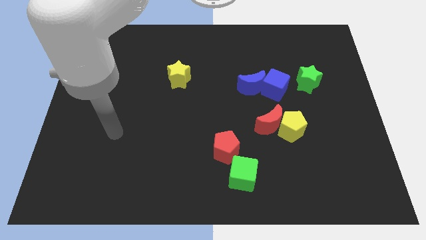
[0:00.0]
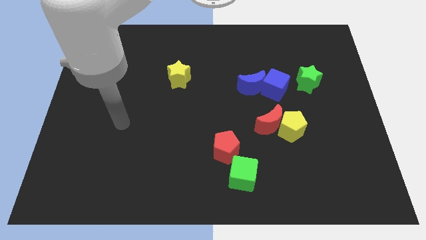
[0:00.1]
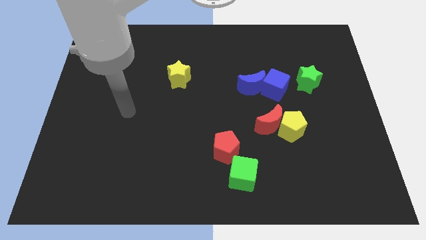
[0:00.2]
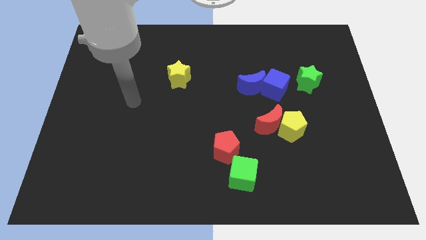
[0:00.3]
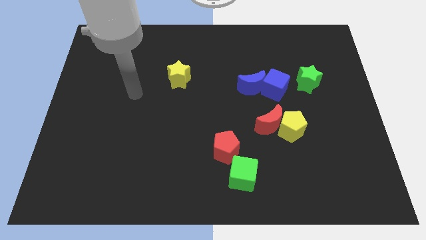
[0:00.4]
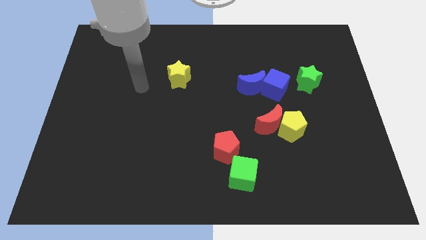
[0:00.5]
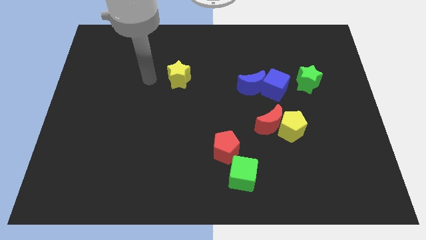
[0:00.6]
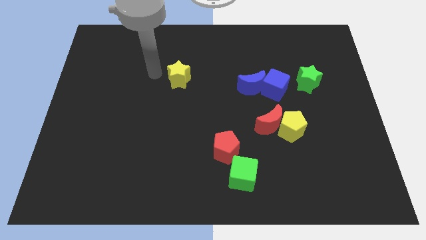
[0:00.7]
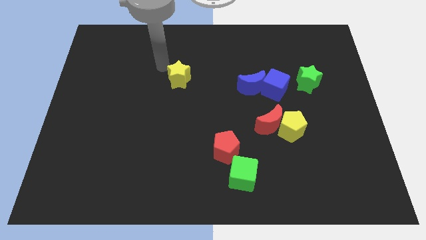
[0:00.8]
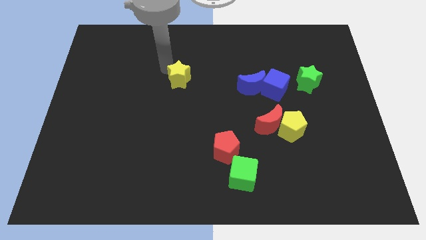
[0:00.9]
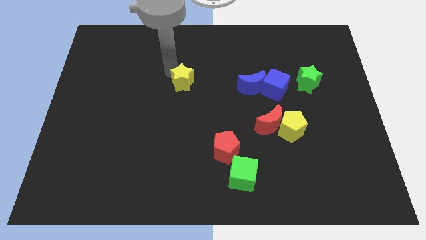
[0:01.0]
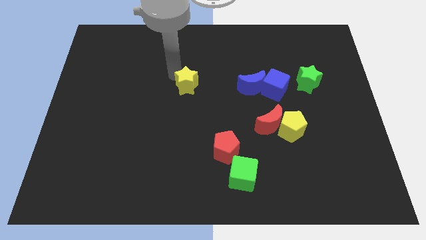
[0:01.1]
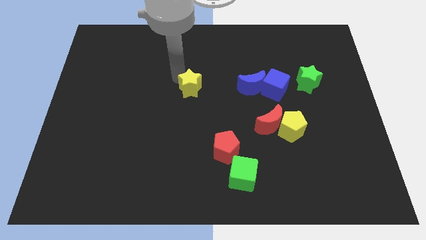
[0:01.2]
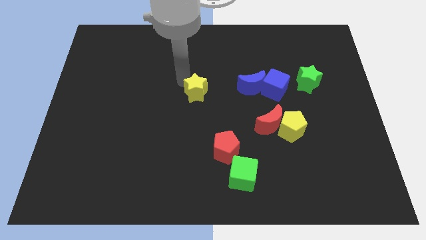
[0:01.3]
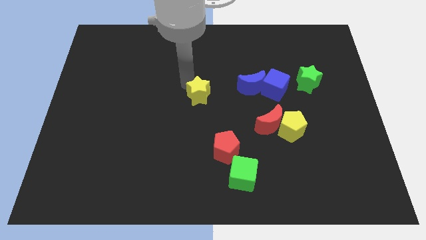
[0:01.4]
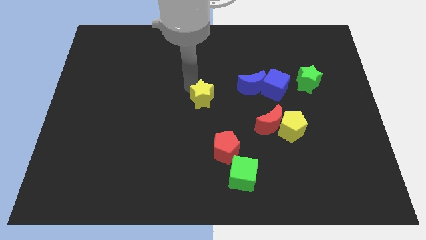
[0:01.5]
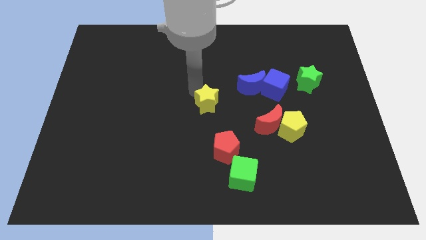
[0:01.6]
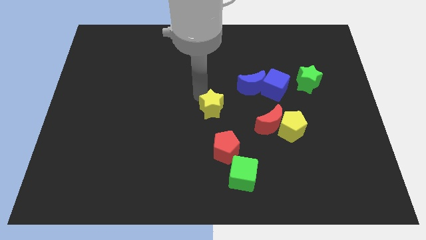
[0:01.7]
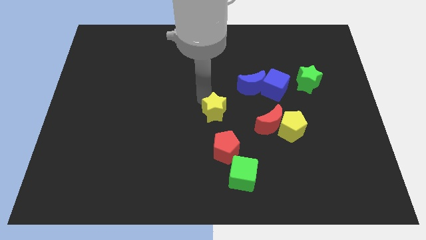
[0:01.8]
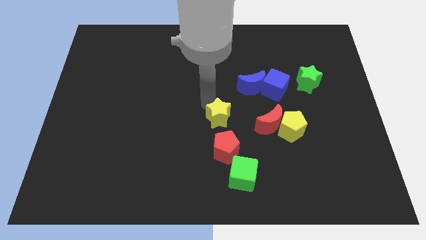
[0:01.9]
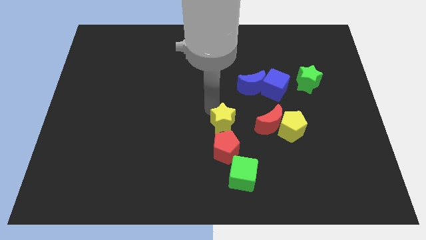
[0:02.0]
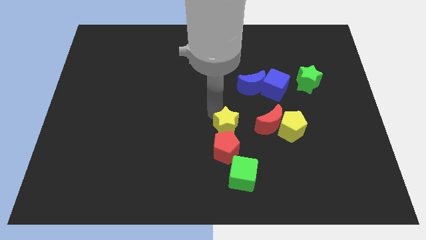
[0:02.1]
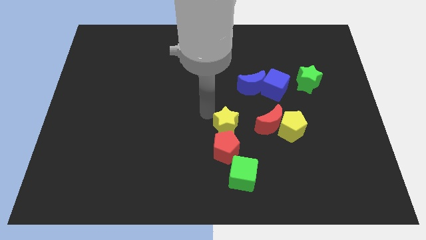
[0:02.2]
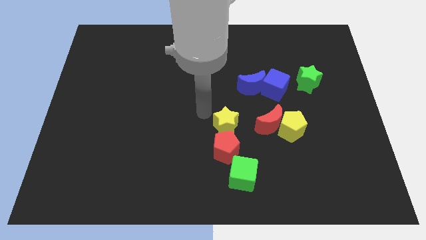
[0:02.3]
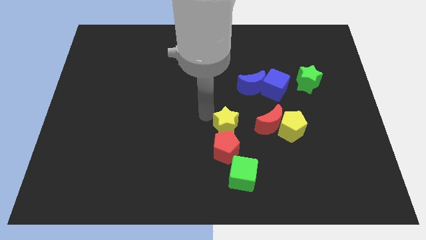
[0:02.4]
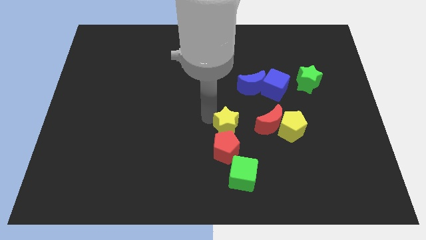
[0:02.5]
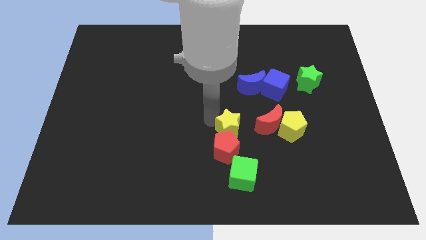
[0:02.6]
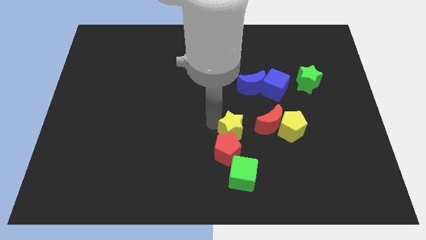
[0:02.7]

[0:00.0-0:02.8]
move the yellow star down and to the right diagonally

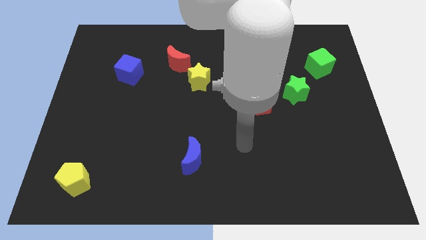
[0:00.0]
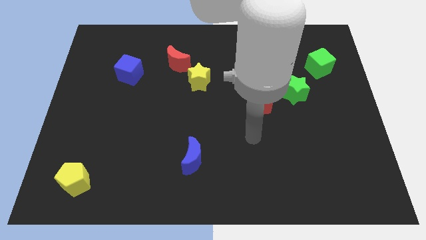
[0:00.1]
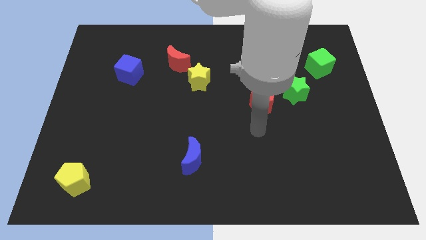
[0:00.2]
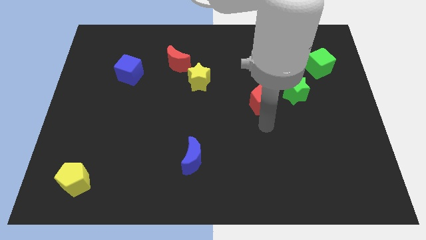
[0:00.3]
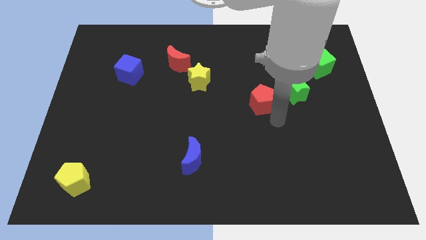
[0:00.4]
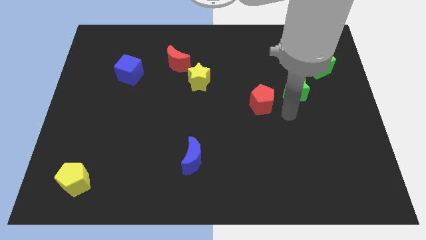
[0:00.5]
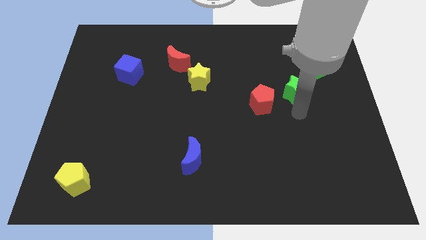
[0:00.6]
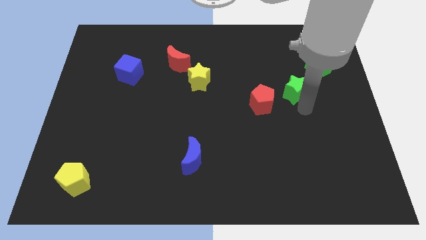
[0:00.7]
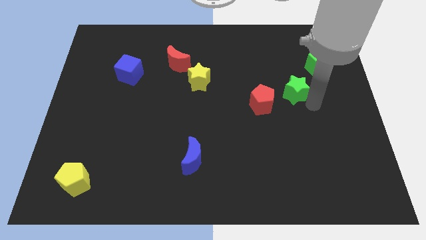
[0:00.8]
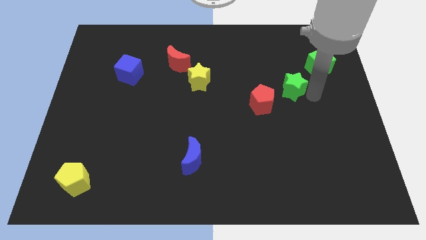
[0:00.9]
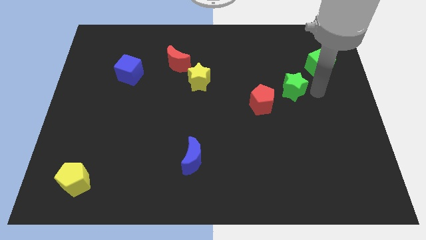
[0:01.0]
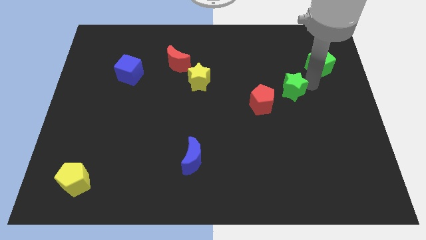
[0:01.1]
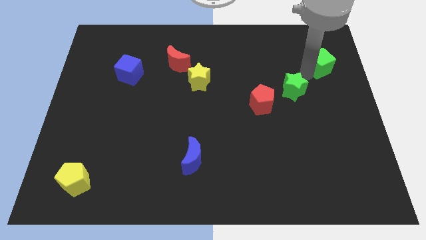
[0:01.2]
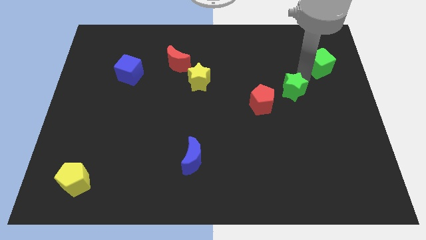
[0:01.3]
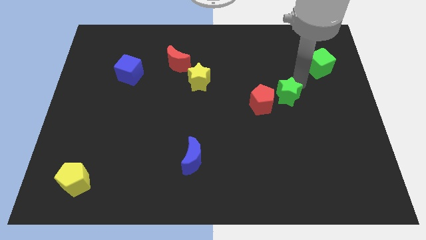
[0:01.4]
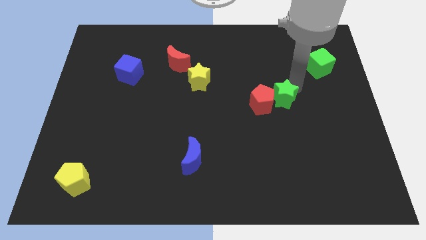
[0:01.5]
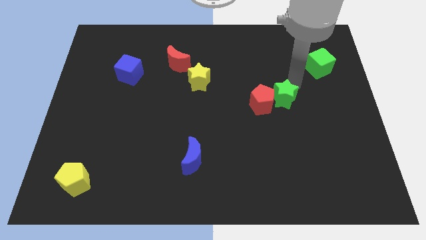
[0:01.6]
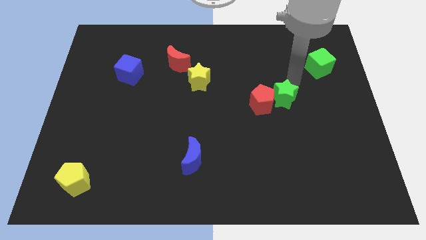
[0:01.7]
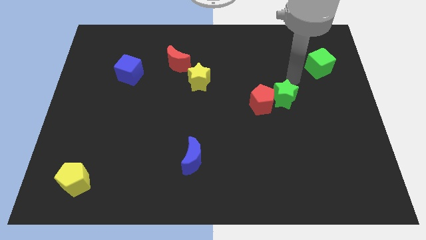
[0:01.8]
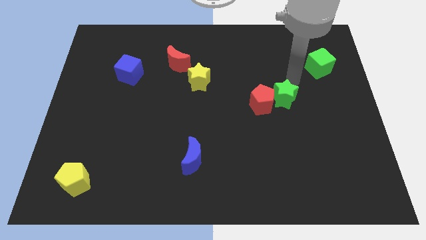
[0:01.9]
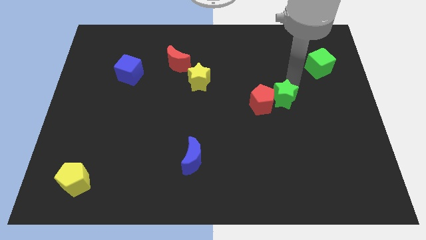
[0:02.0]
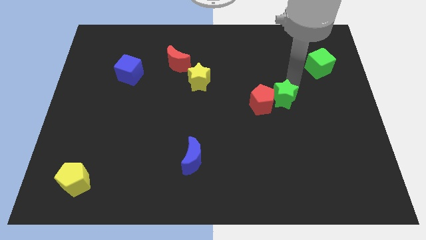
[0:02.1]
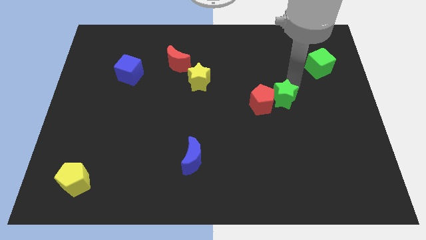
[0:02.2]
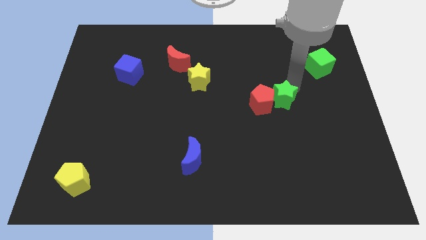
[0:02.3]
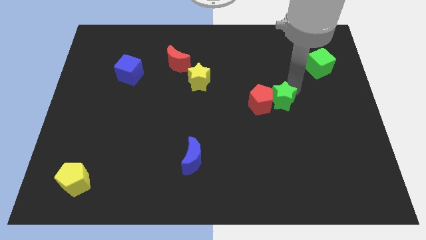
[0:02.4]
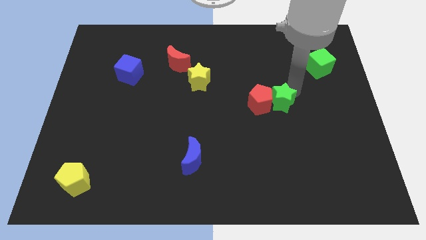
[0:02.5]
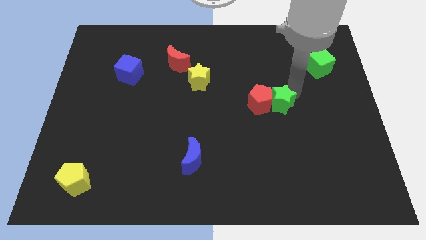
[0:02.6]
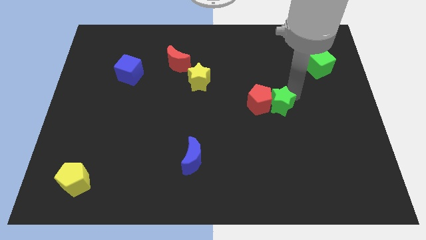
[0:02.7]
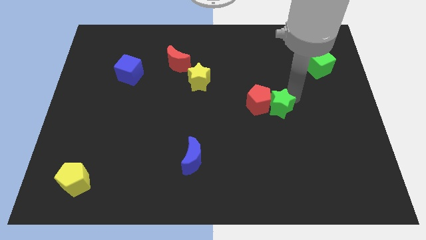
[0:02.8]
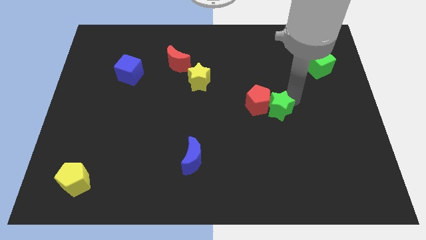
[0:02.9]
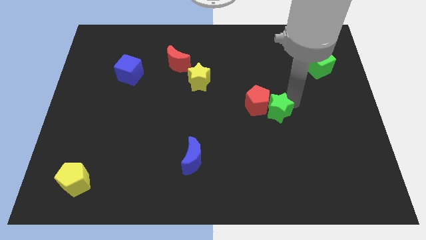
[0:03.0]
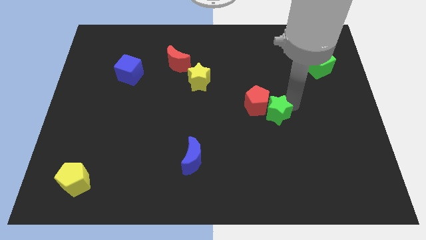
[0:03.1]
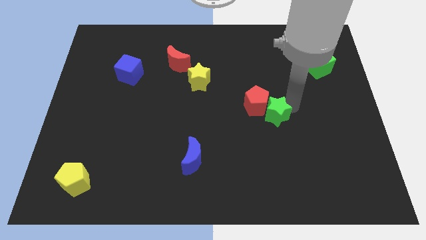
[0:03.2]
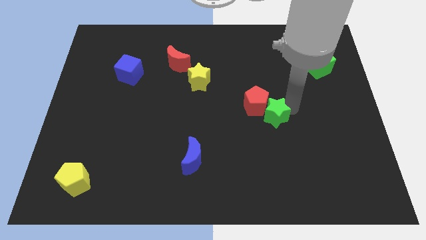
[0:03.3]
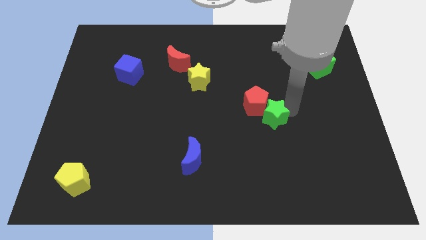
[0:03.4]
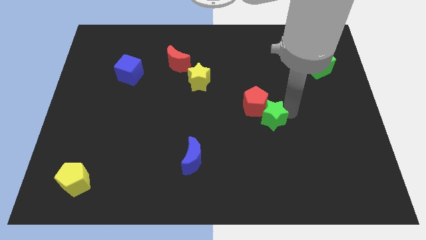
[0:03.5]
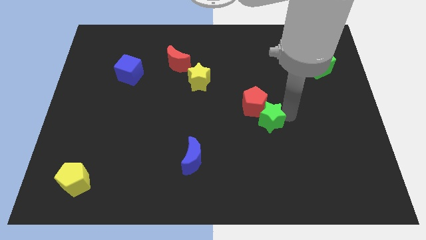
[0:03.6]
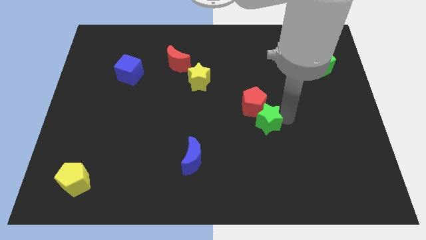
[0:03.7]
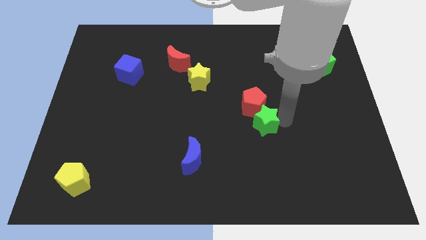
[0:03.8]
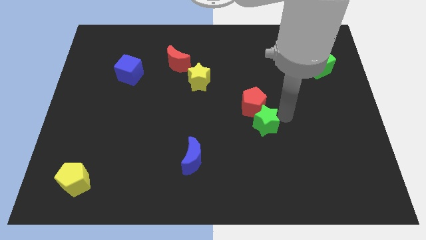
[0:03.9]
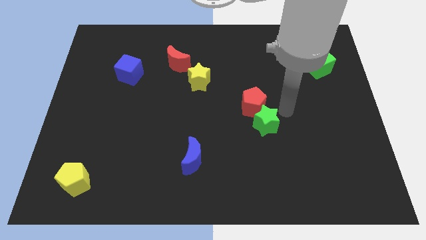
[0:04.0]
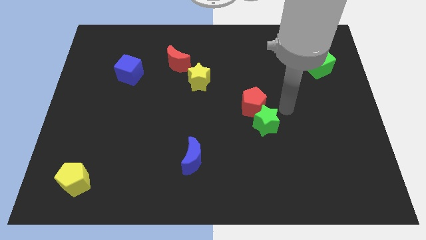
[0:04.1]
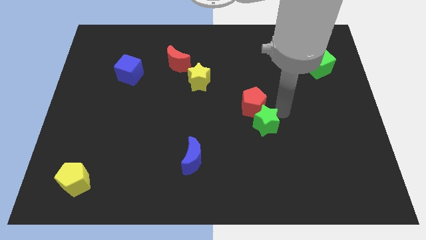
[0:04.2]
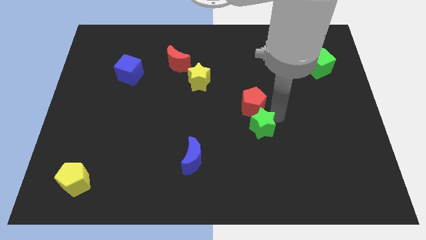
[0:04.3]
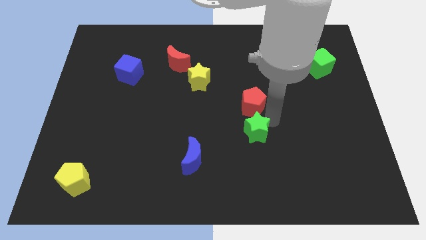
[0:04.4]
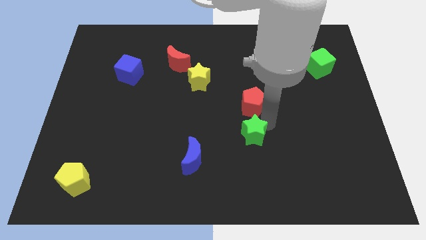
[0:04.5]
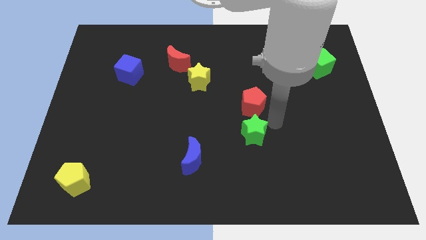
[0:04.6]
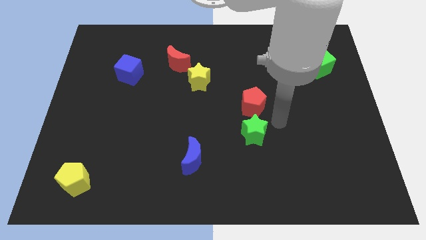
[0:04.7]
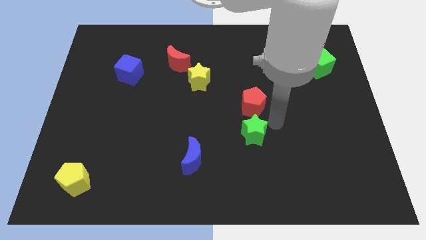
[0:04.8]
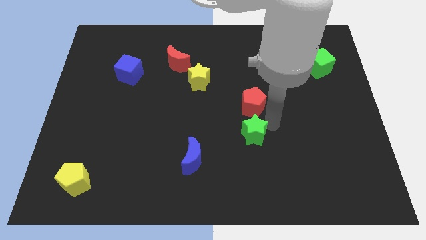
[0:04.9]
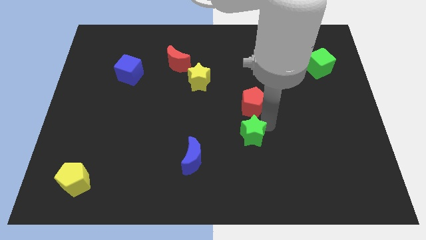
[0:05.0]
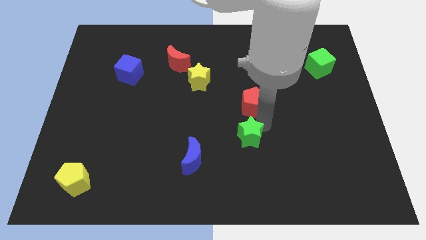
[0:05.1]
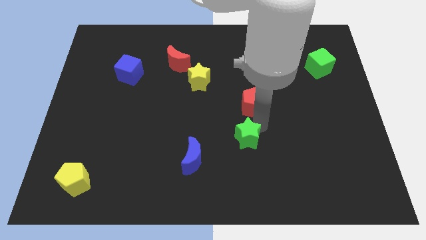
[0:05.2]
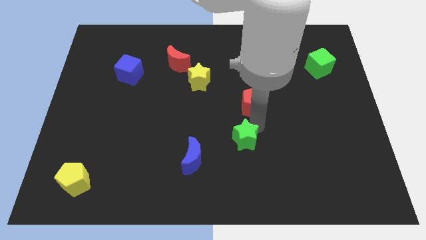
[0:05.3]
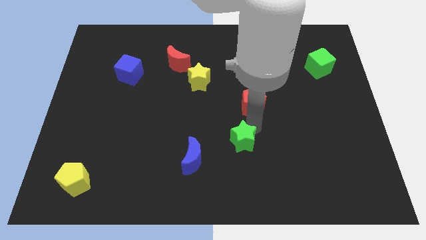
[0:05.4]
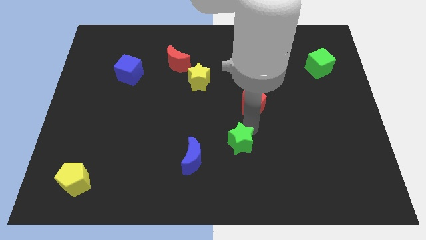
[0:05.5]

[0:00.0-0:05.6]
push the green star diagonally downwards and to the left
